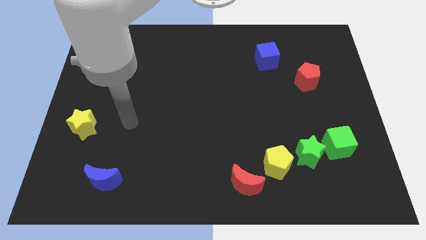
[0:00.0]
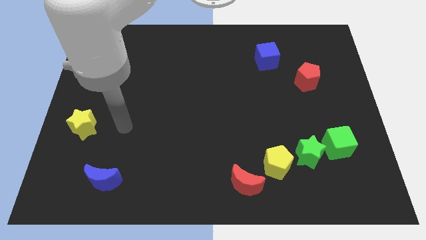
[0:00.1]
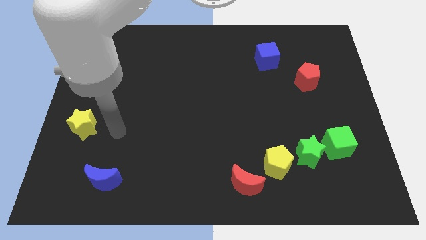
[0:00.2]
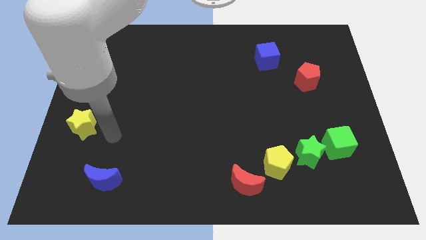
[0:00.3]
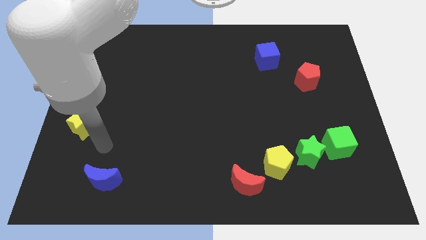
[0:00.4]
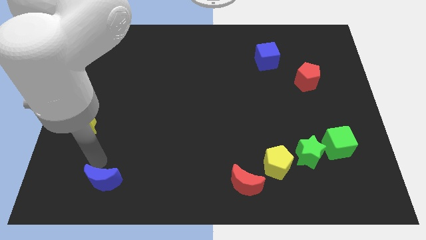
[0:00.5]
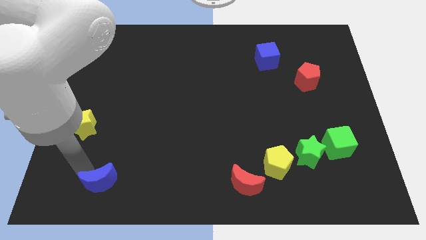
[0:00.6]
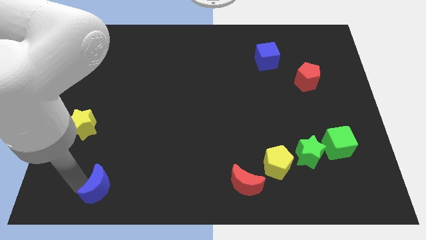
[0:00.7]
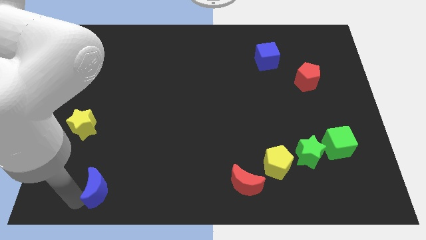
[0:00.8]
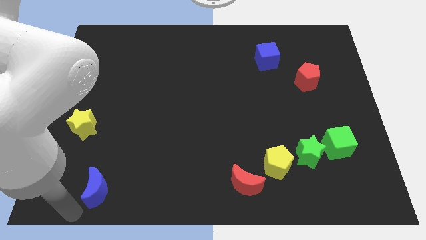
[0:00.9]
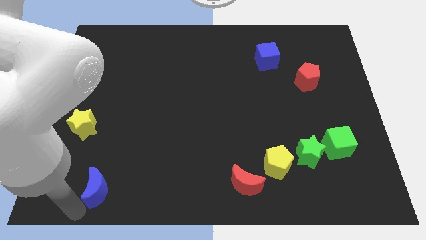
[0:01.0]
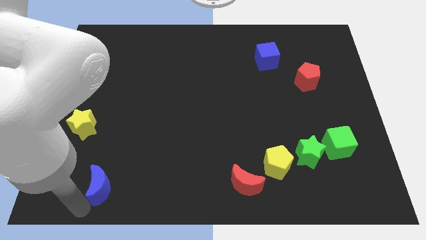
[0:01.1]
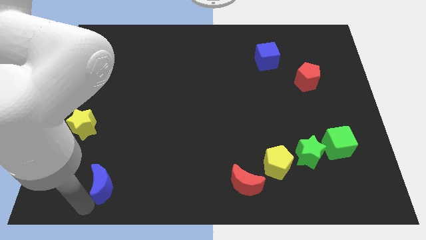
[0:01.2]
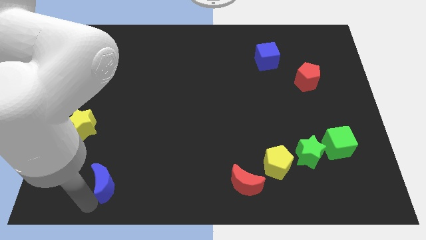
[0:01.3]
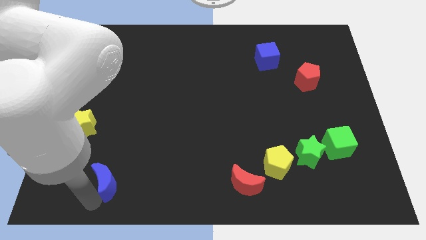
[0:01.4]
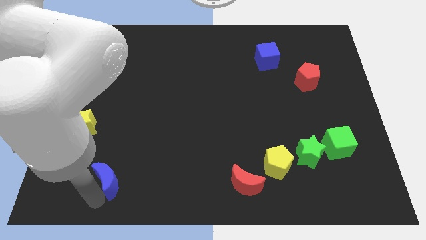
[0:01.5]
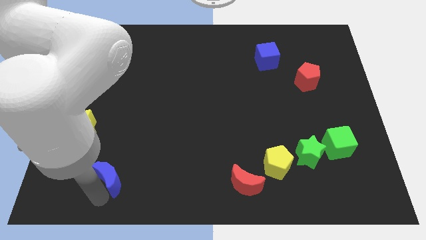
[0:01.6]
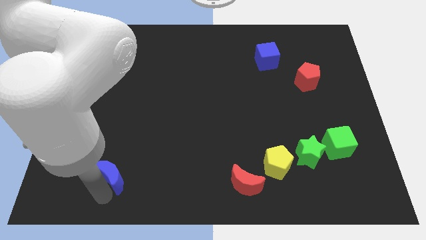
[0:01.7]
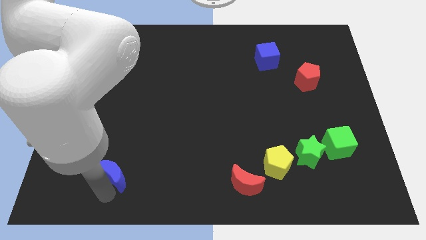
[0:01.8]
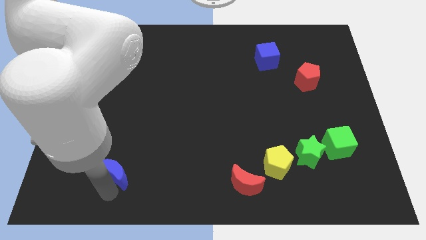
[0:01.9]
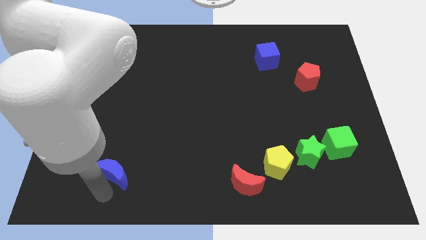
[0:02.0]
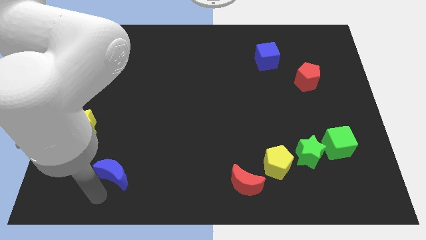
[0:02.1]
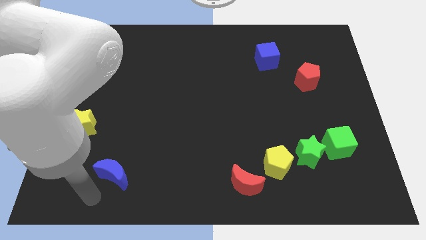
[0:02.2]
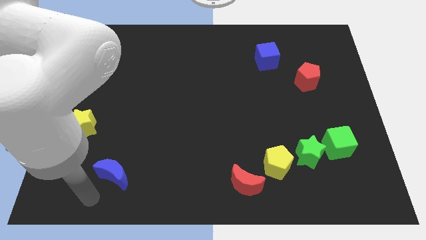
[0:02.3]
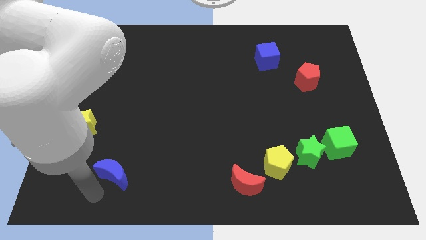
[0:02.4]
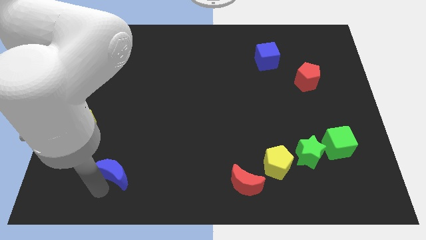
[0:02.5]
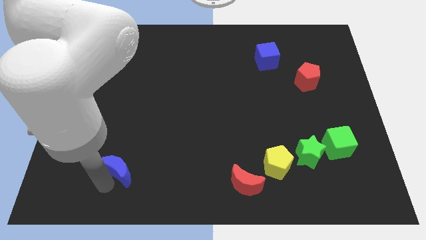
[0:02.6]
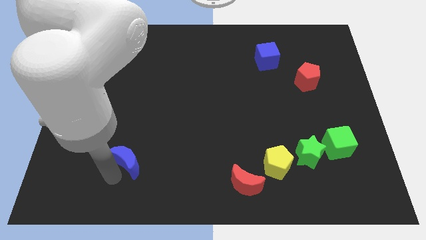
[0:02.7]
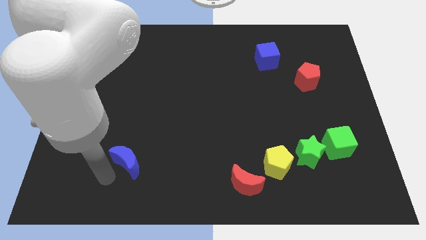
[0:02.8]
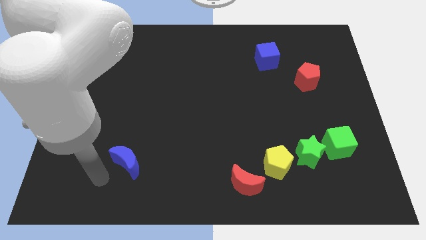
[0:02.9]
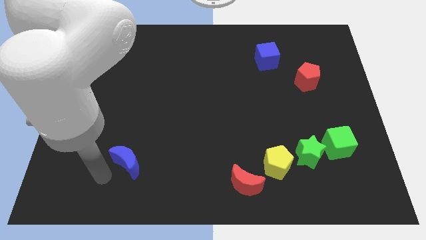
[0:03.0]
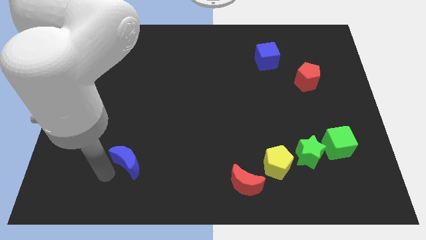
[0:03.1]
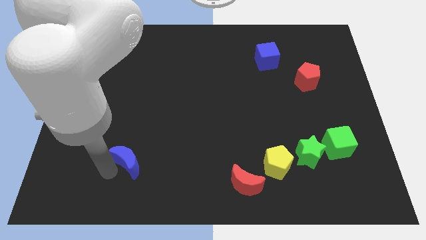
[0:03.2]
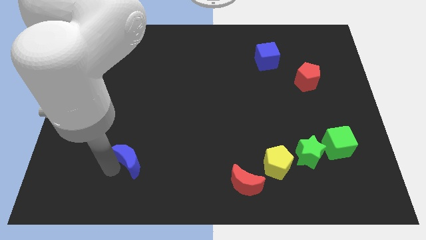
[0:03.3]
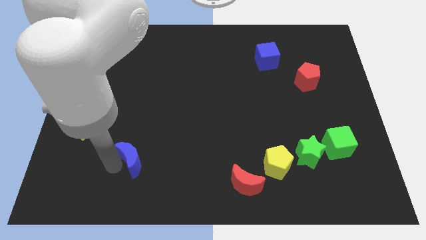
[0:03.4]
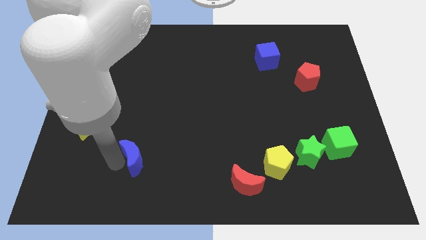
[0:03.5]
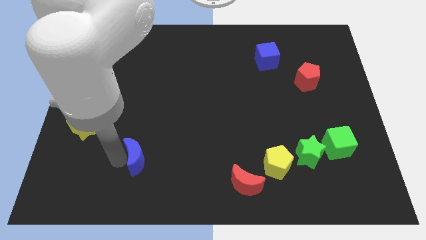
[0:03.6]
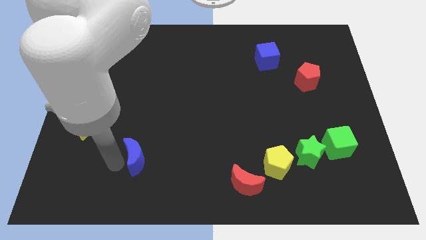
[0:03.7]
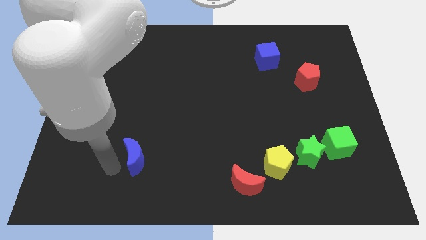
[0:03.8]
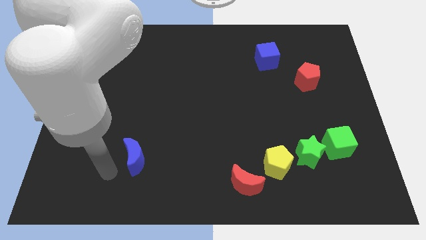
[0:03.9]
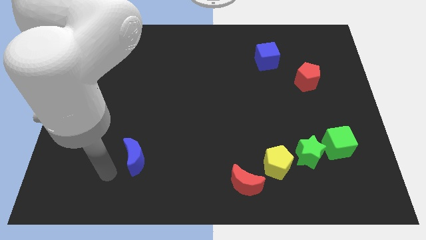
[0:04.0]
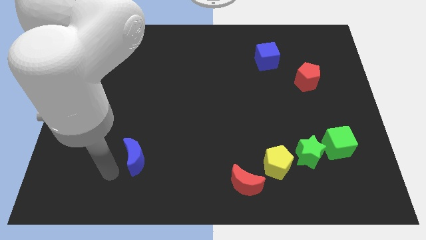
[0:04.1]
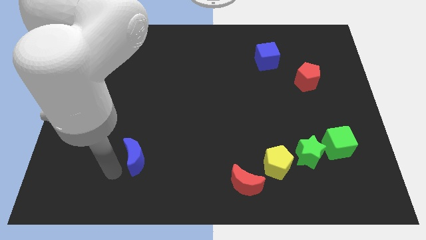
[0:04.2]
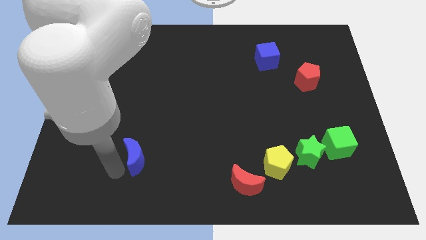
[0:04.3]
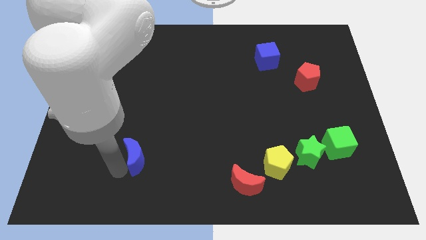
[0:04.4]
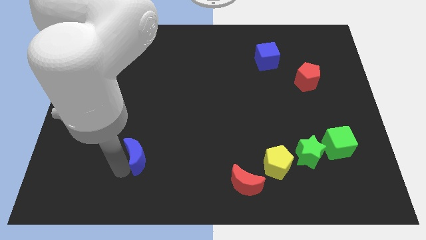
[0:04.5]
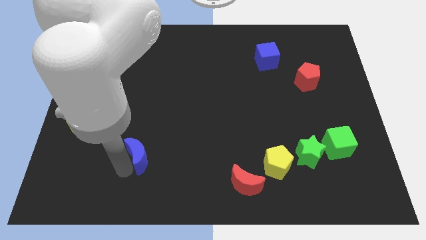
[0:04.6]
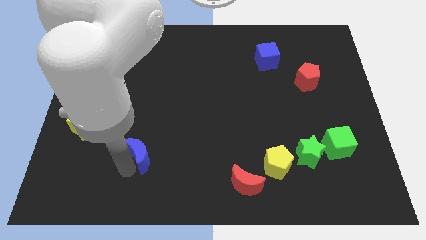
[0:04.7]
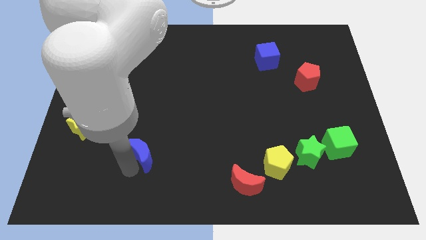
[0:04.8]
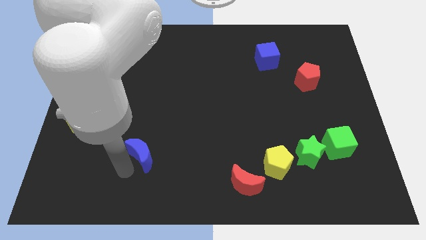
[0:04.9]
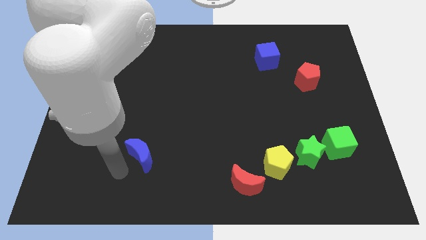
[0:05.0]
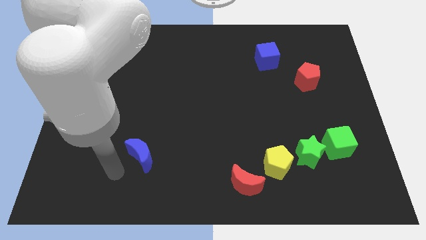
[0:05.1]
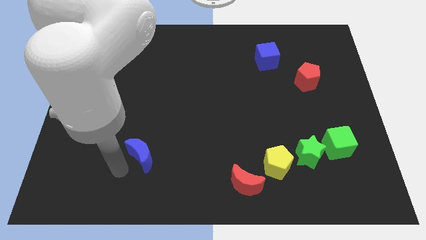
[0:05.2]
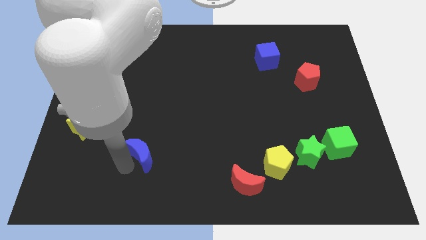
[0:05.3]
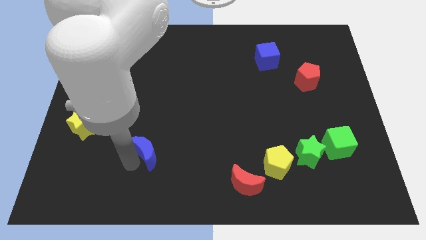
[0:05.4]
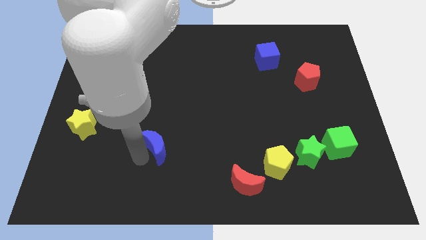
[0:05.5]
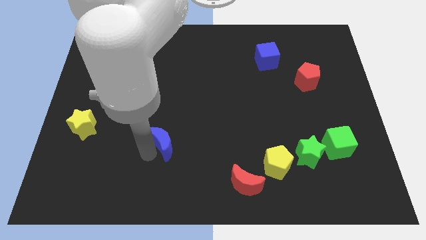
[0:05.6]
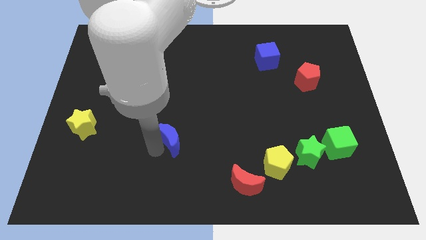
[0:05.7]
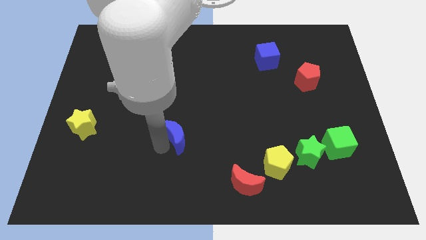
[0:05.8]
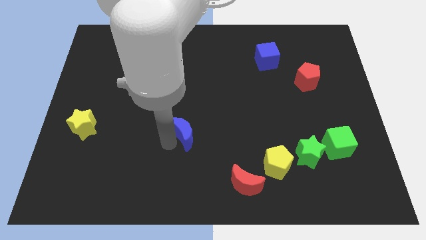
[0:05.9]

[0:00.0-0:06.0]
move the blue moon to the middle

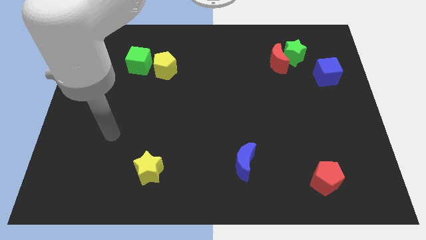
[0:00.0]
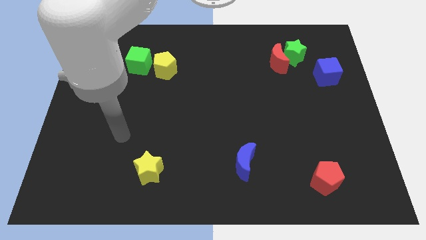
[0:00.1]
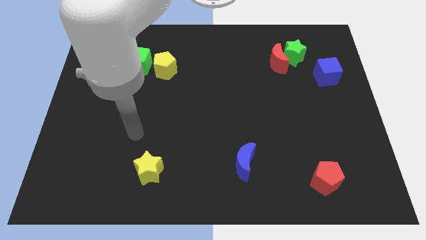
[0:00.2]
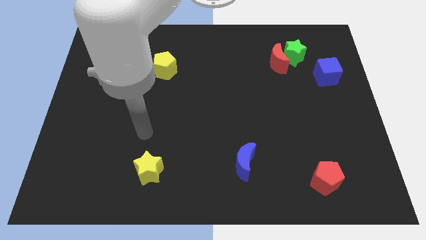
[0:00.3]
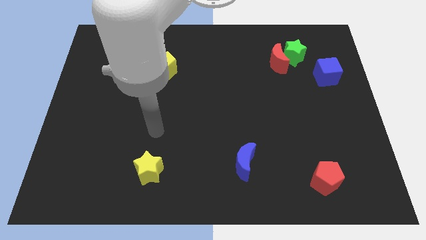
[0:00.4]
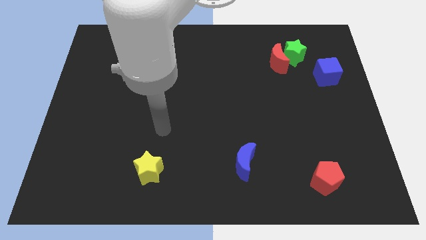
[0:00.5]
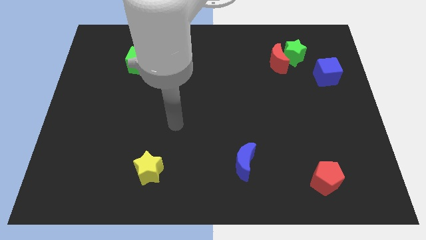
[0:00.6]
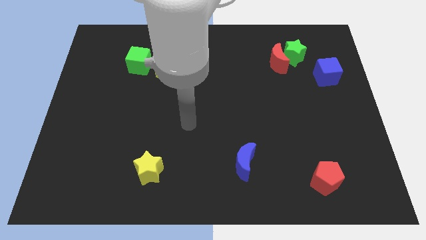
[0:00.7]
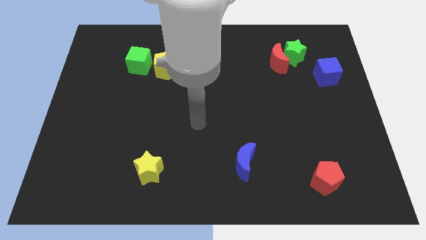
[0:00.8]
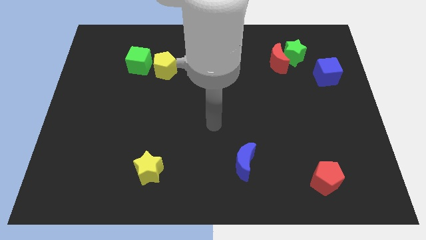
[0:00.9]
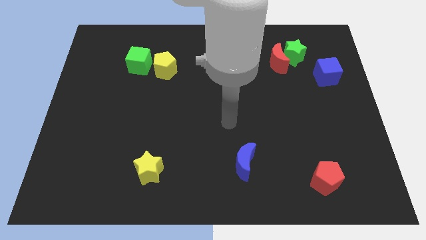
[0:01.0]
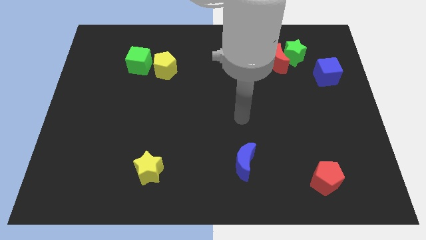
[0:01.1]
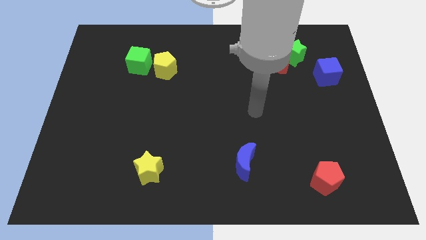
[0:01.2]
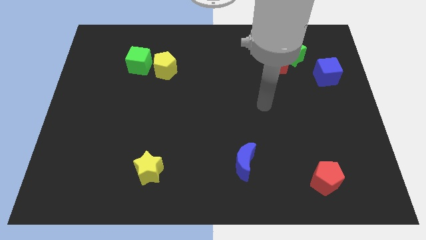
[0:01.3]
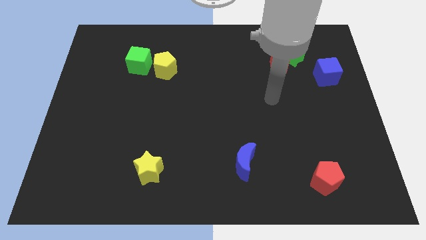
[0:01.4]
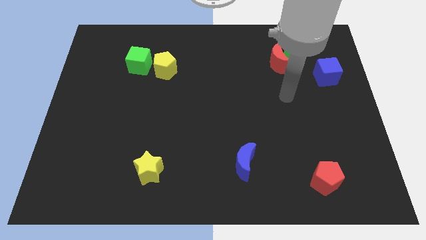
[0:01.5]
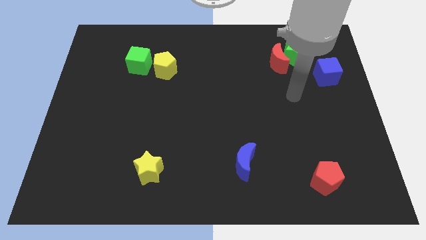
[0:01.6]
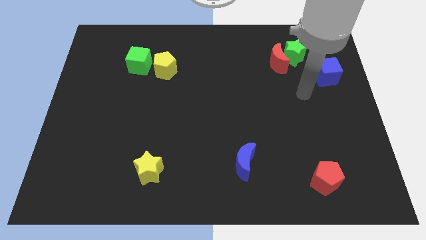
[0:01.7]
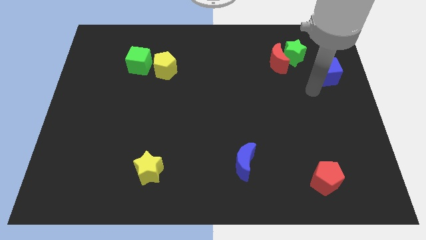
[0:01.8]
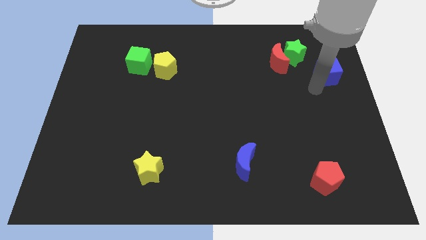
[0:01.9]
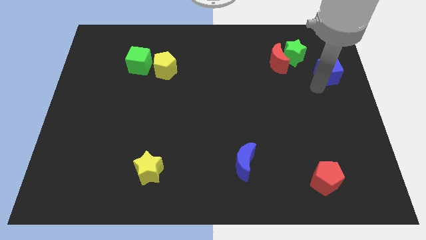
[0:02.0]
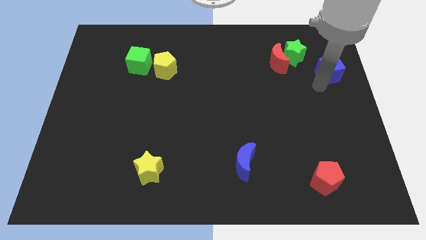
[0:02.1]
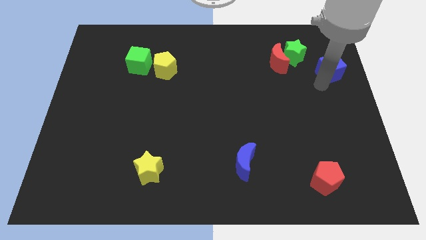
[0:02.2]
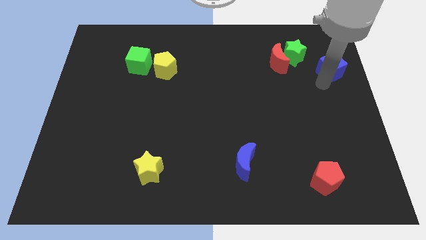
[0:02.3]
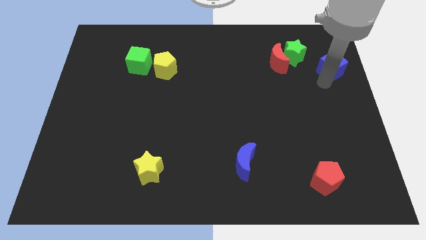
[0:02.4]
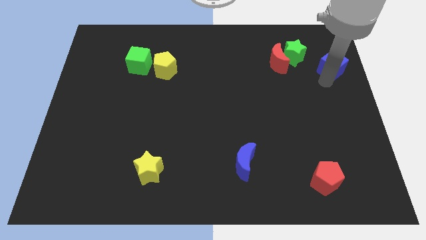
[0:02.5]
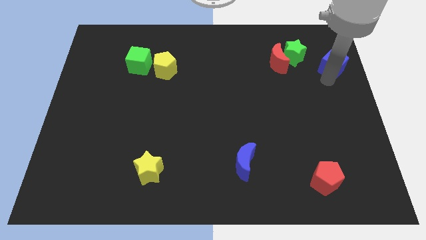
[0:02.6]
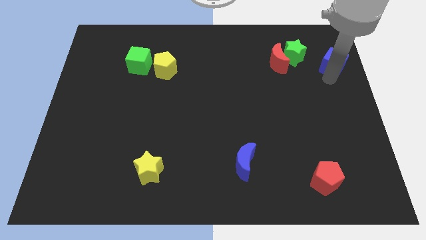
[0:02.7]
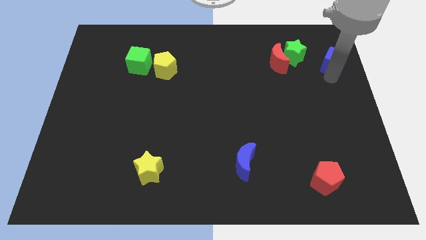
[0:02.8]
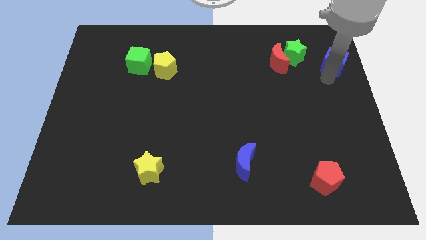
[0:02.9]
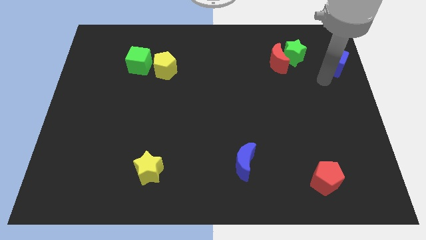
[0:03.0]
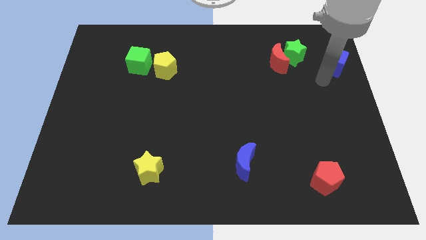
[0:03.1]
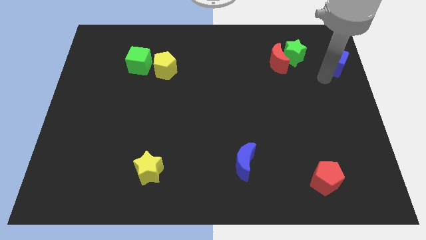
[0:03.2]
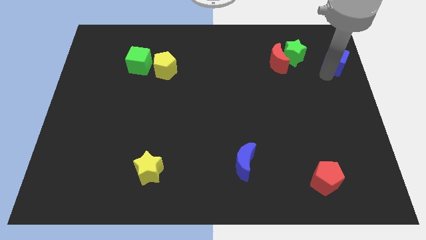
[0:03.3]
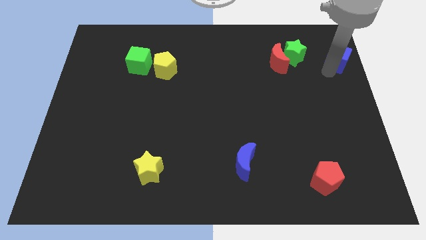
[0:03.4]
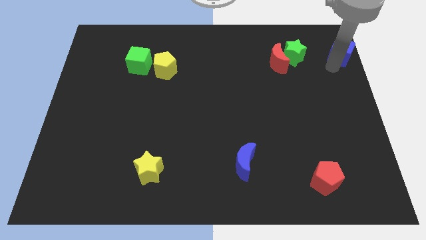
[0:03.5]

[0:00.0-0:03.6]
push the blue cube to the upper right corner
